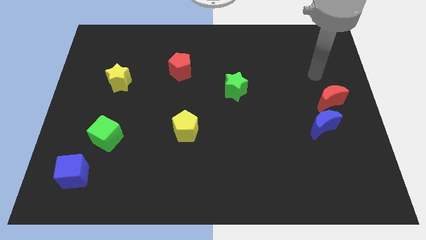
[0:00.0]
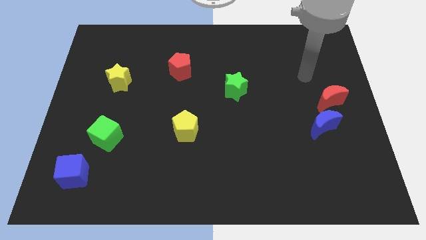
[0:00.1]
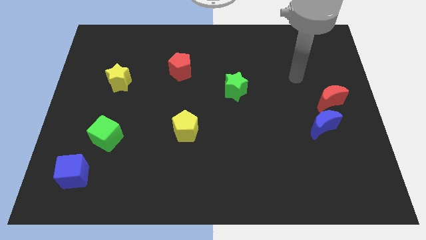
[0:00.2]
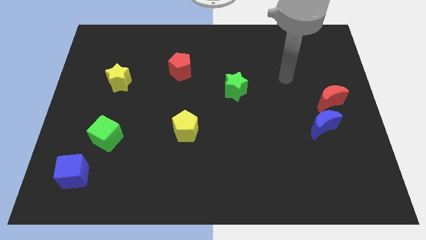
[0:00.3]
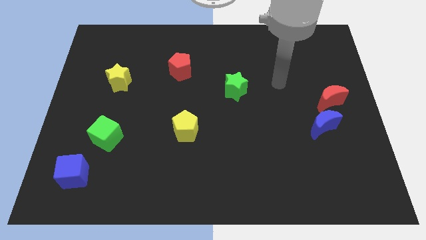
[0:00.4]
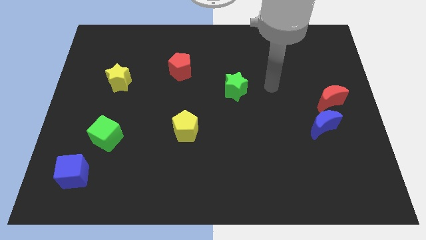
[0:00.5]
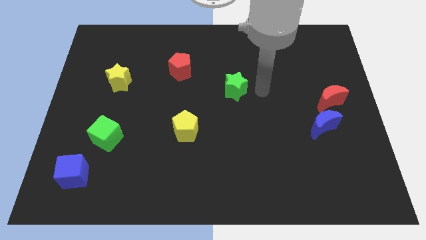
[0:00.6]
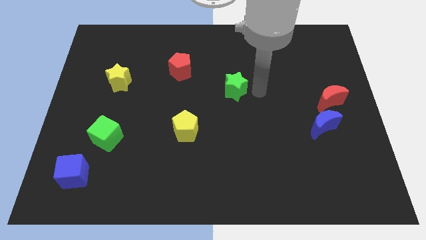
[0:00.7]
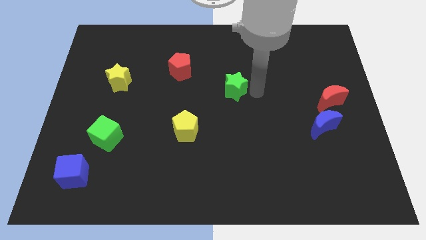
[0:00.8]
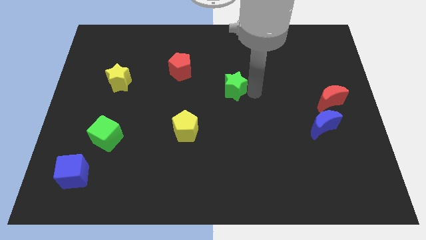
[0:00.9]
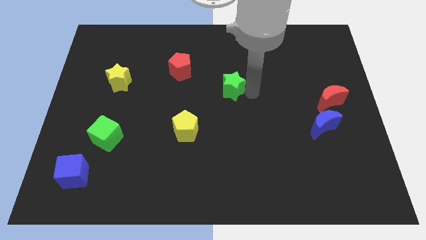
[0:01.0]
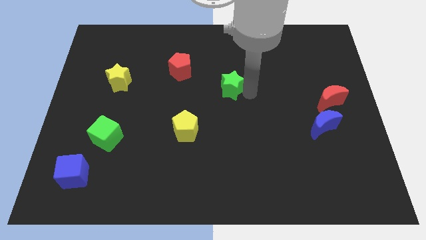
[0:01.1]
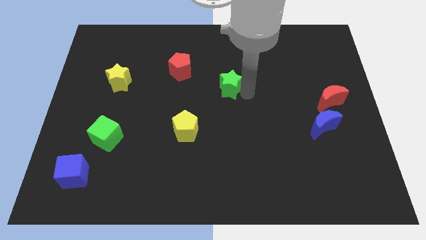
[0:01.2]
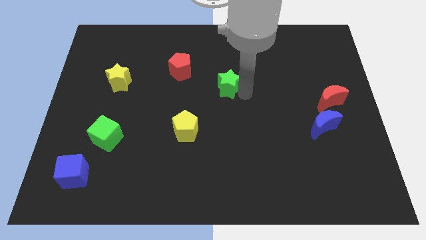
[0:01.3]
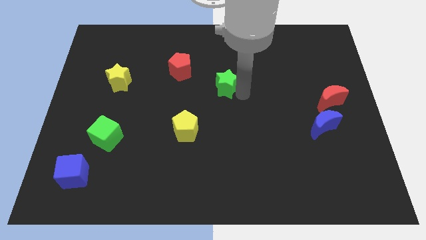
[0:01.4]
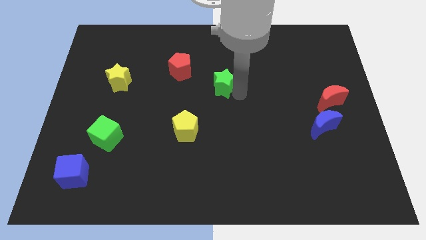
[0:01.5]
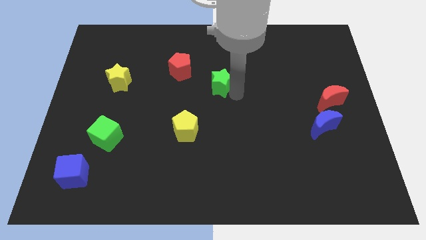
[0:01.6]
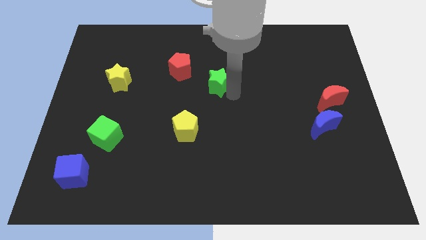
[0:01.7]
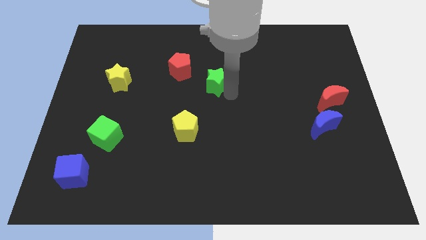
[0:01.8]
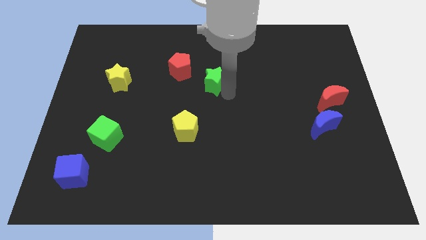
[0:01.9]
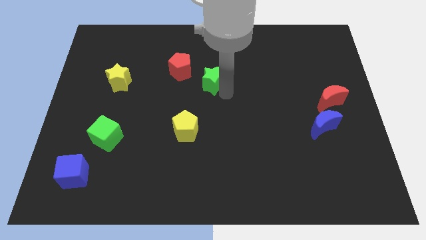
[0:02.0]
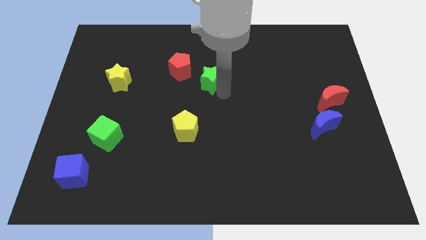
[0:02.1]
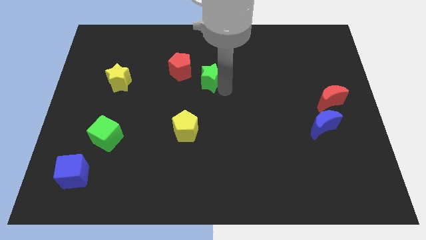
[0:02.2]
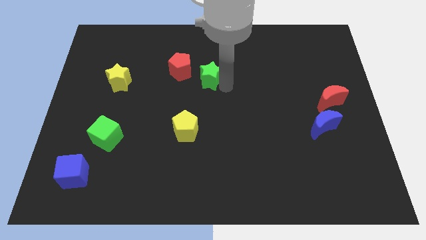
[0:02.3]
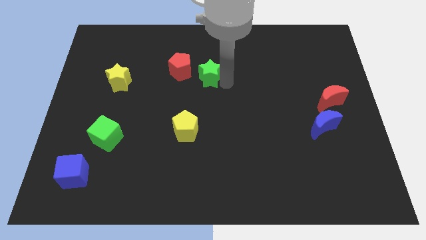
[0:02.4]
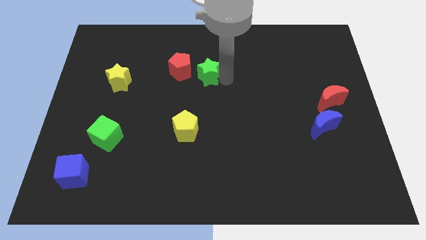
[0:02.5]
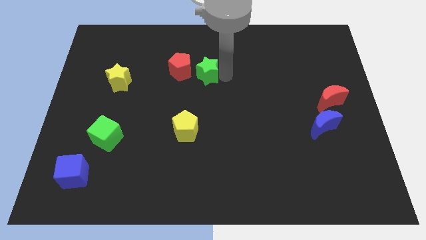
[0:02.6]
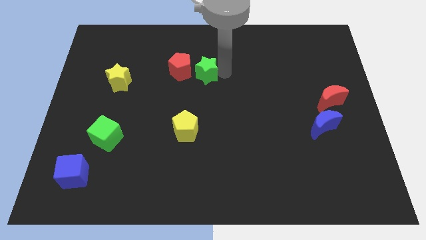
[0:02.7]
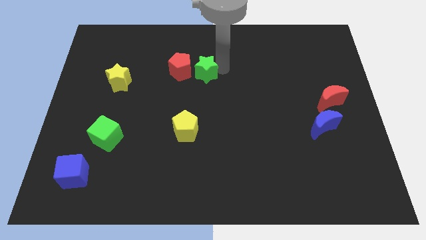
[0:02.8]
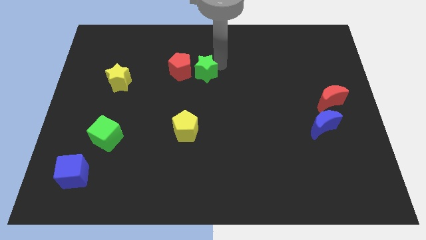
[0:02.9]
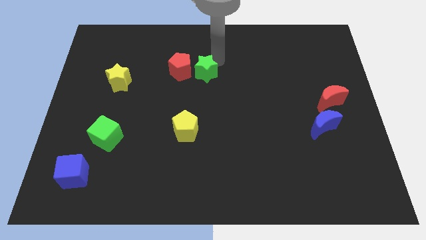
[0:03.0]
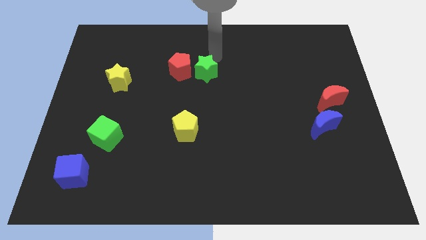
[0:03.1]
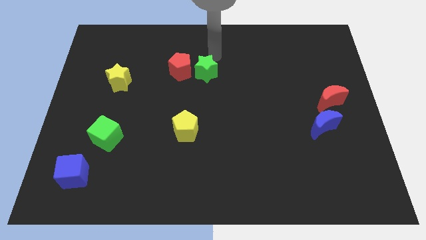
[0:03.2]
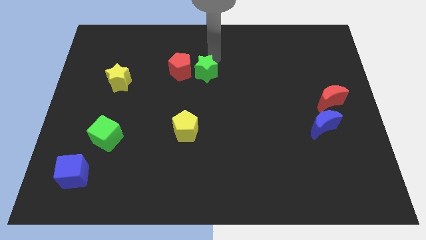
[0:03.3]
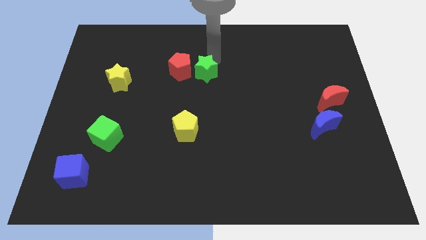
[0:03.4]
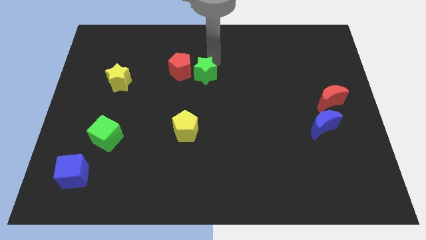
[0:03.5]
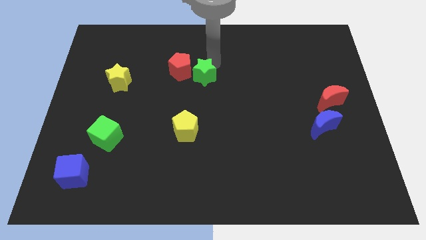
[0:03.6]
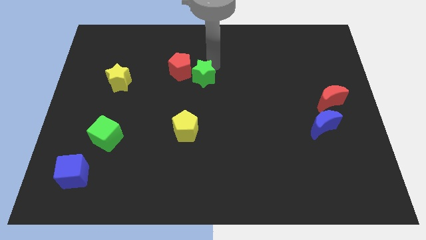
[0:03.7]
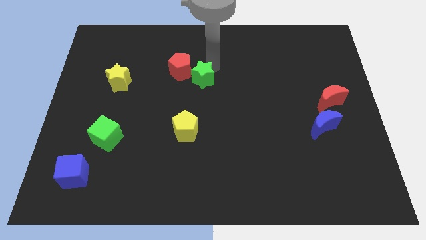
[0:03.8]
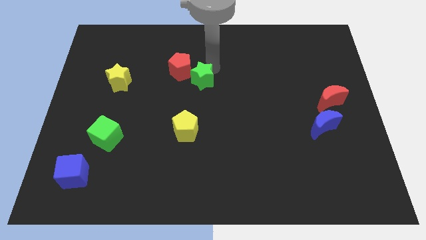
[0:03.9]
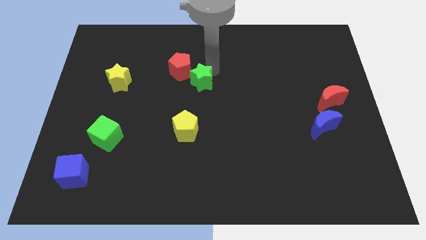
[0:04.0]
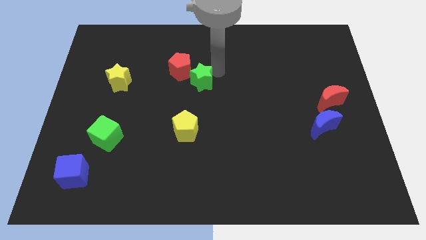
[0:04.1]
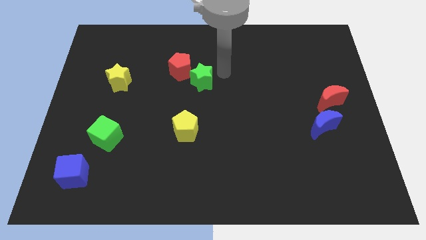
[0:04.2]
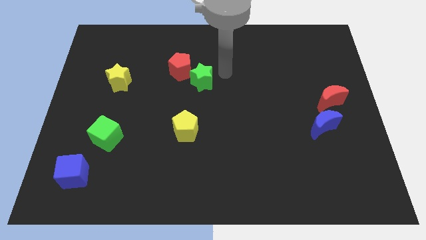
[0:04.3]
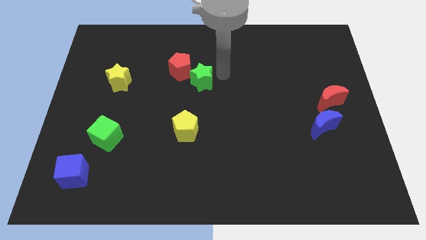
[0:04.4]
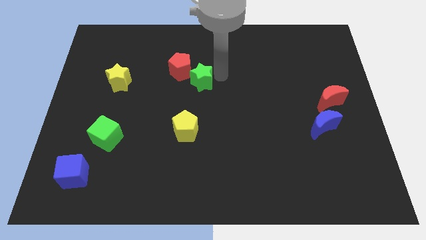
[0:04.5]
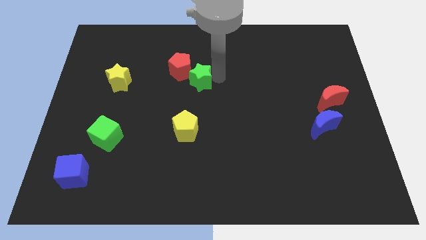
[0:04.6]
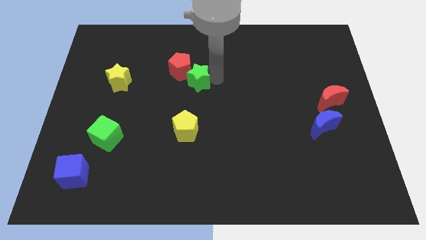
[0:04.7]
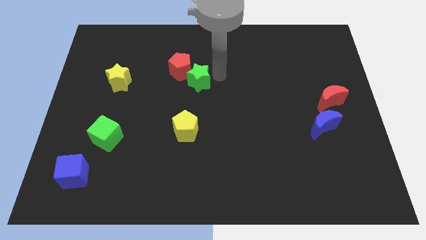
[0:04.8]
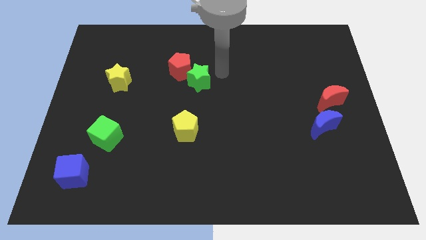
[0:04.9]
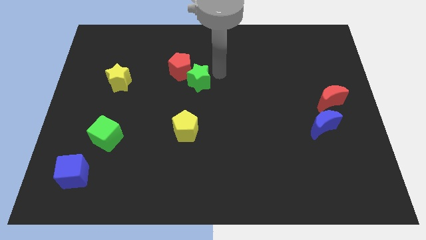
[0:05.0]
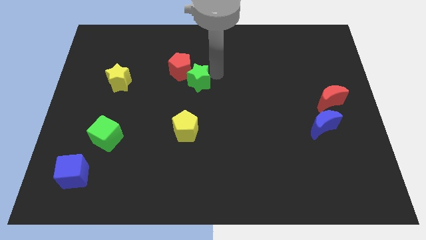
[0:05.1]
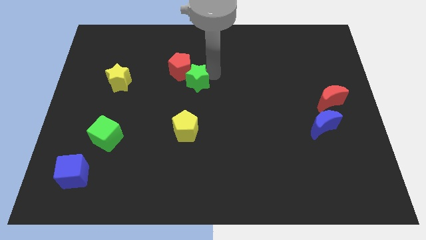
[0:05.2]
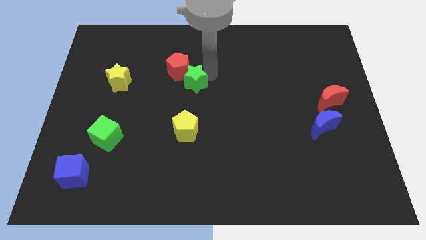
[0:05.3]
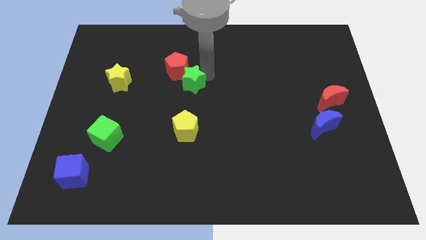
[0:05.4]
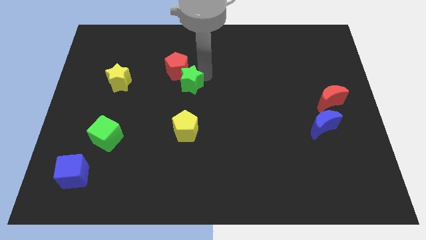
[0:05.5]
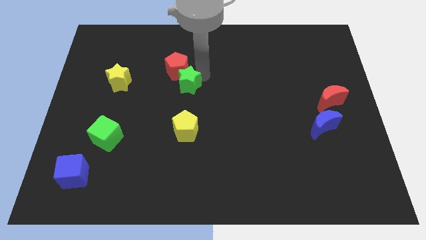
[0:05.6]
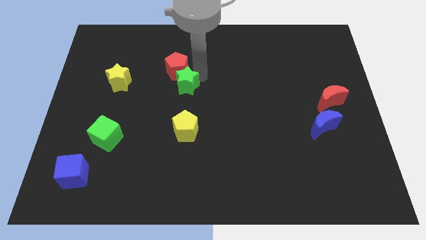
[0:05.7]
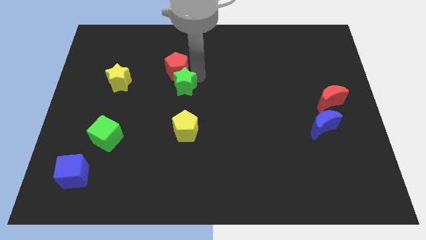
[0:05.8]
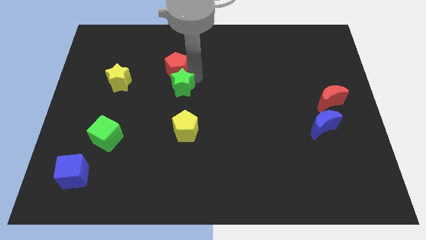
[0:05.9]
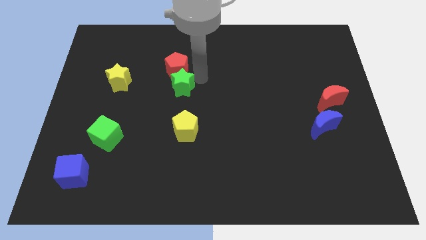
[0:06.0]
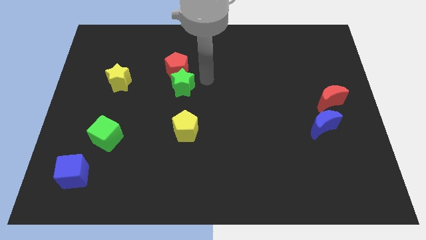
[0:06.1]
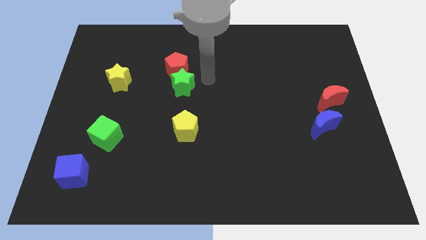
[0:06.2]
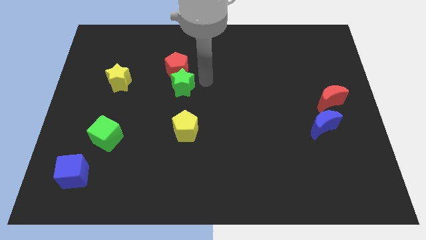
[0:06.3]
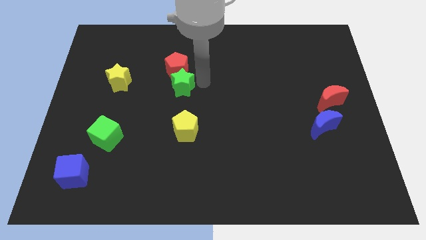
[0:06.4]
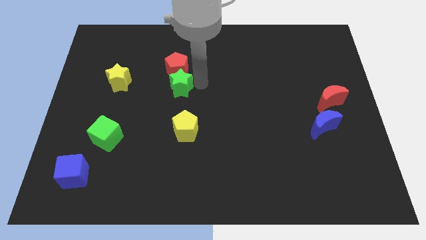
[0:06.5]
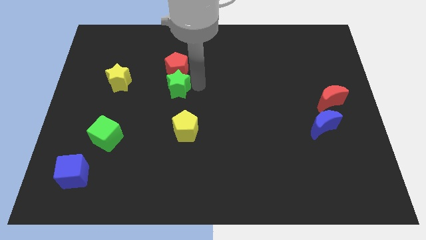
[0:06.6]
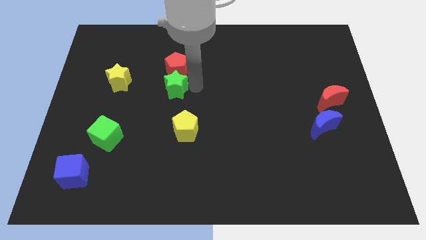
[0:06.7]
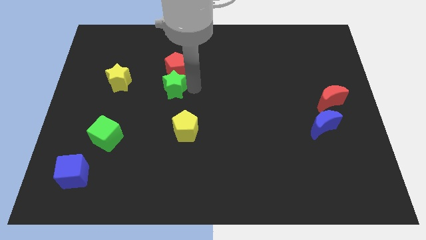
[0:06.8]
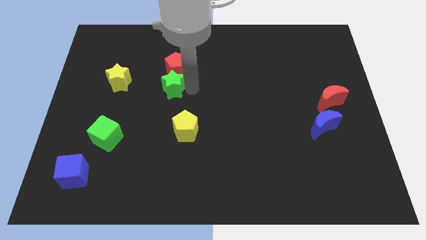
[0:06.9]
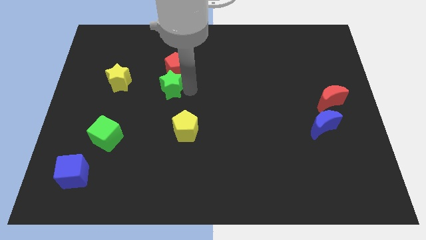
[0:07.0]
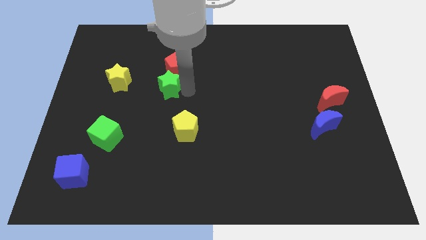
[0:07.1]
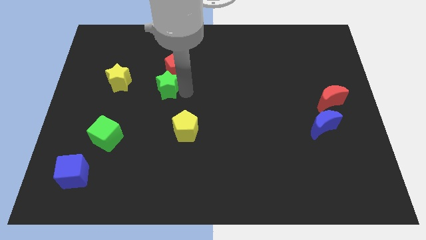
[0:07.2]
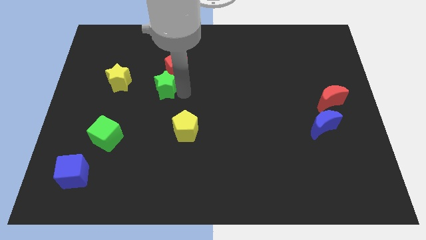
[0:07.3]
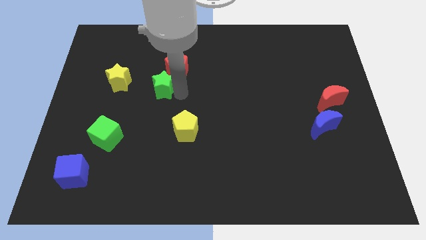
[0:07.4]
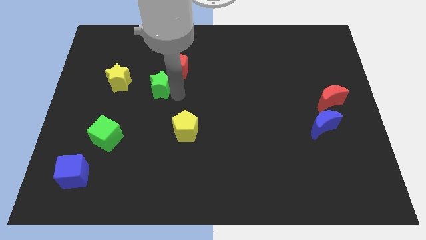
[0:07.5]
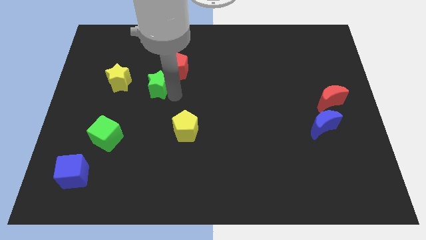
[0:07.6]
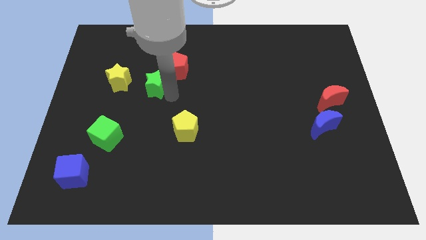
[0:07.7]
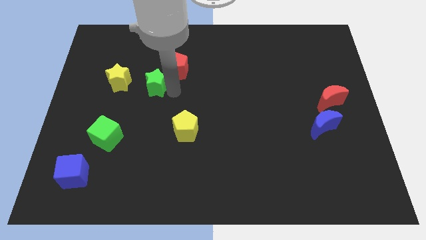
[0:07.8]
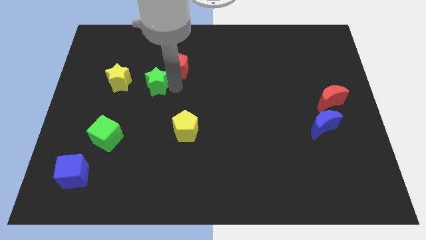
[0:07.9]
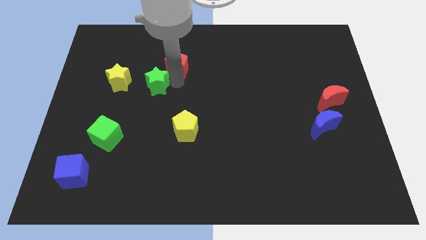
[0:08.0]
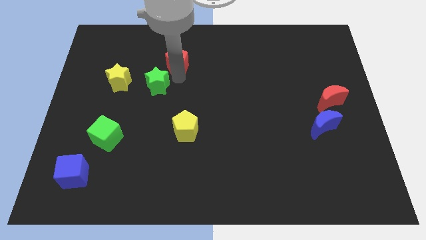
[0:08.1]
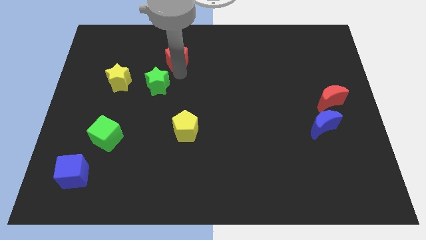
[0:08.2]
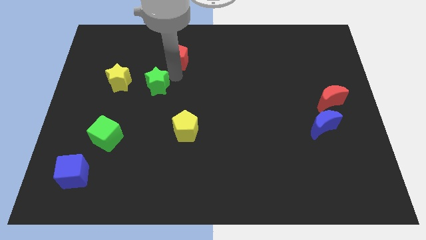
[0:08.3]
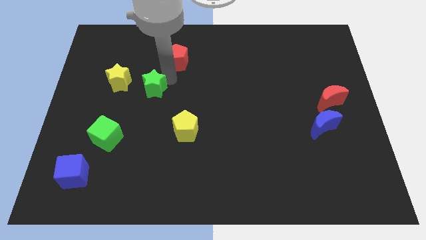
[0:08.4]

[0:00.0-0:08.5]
put the green star to the bottom right side of the yellow star
